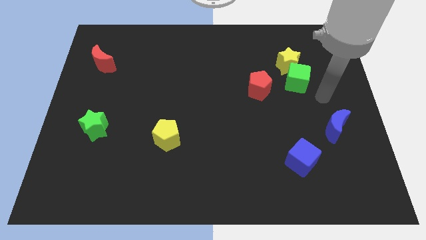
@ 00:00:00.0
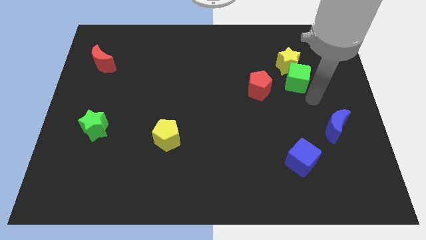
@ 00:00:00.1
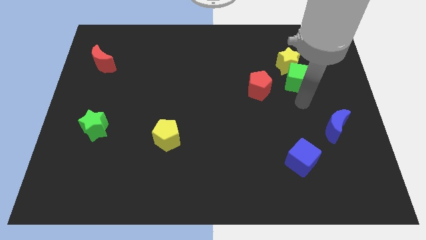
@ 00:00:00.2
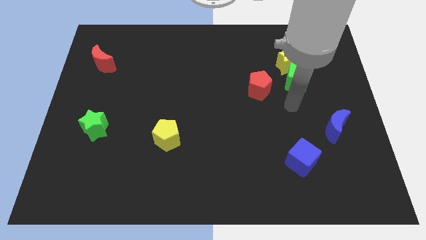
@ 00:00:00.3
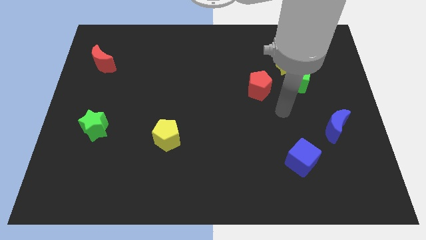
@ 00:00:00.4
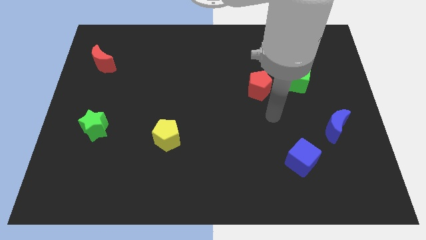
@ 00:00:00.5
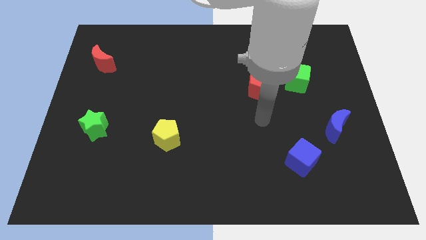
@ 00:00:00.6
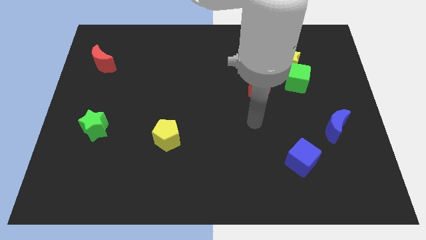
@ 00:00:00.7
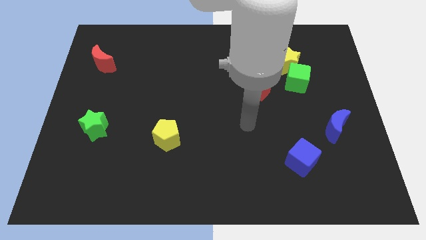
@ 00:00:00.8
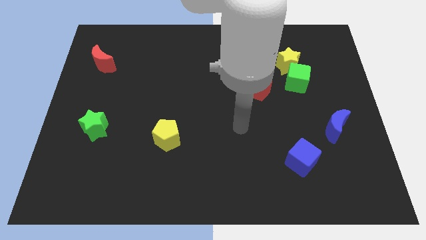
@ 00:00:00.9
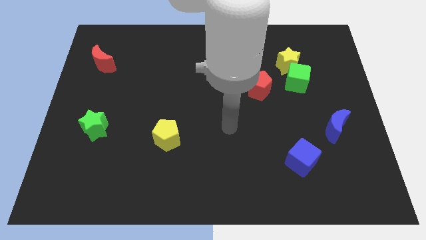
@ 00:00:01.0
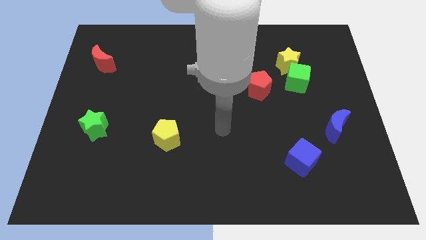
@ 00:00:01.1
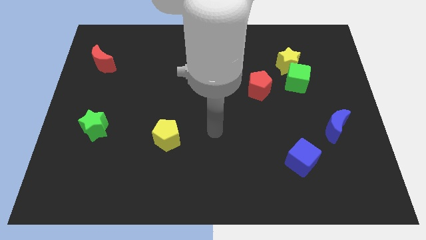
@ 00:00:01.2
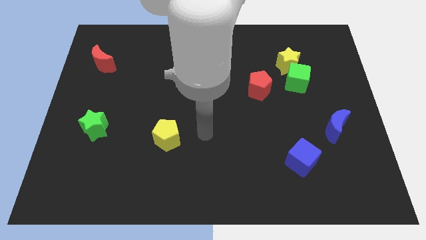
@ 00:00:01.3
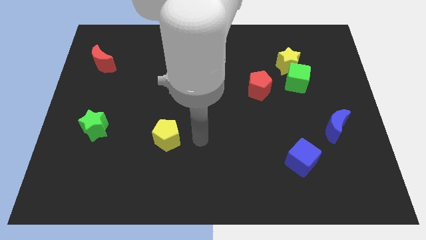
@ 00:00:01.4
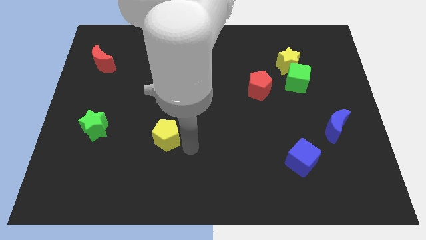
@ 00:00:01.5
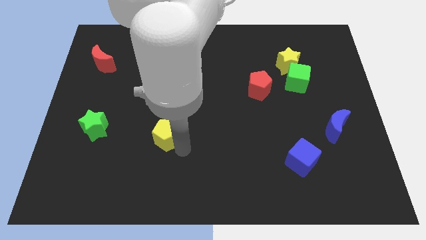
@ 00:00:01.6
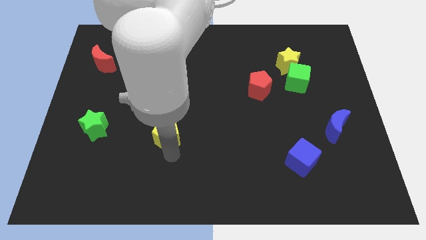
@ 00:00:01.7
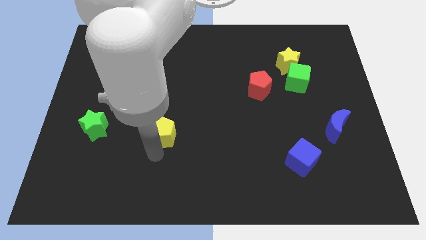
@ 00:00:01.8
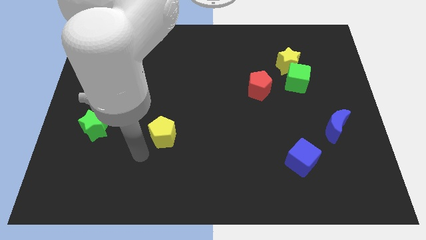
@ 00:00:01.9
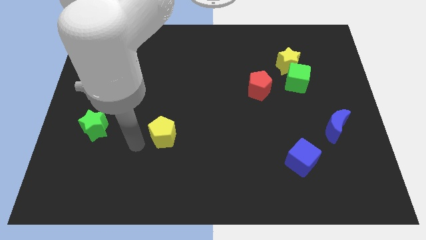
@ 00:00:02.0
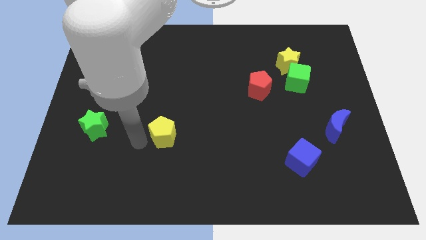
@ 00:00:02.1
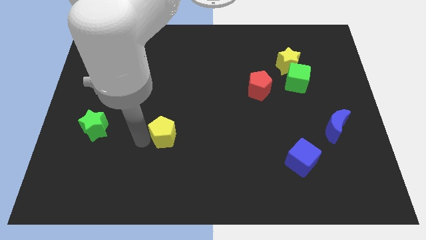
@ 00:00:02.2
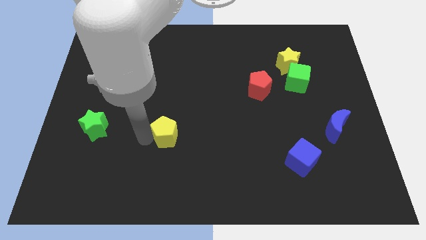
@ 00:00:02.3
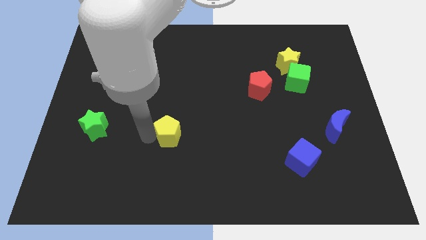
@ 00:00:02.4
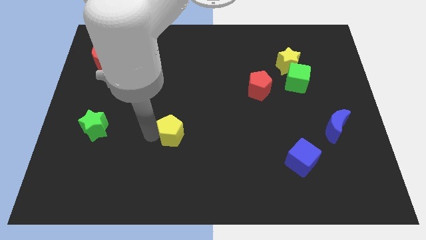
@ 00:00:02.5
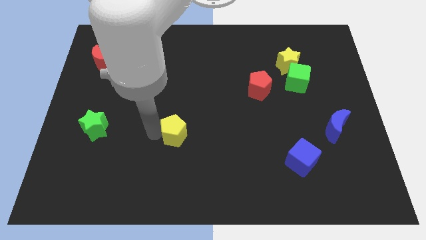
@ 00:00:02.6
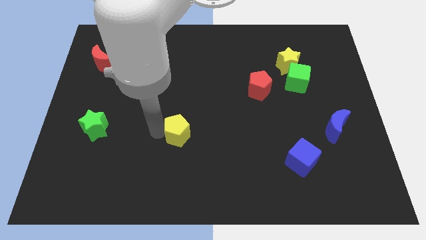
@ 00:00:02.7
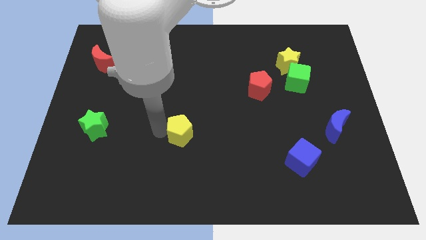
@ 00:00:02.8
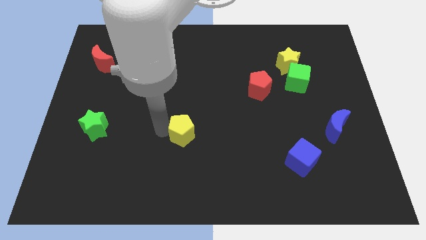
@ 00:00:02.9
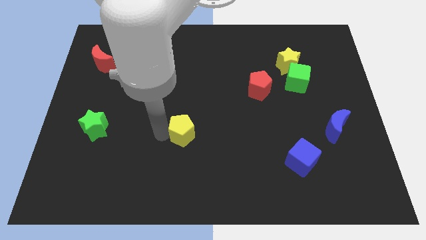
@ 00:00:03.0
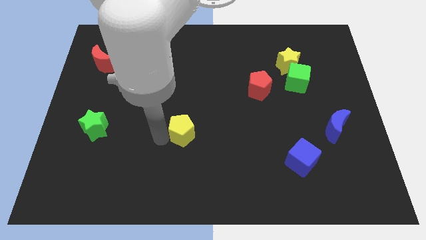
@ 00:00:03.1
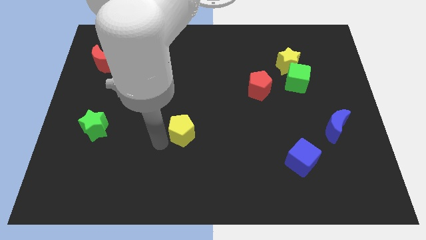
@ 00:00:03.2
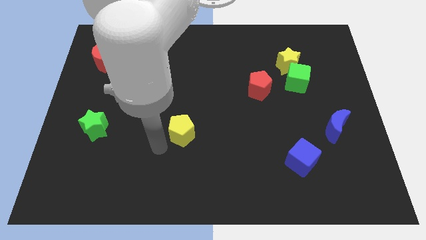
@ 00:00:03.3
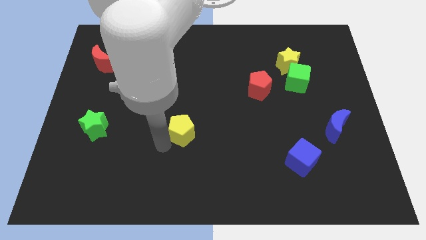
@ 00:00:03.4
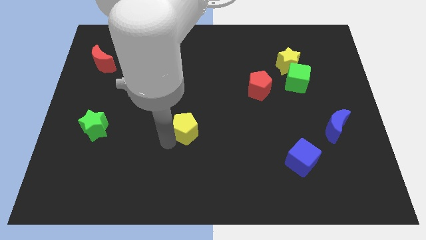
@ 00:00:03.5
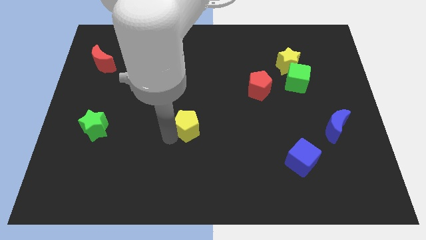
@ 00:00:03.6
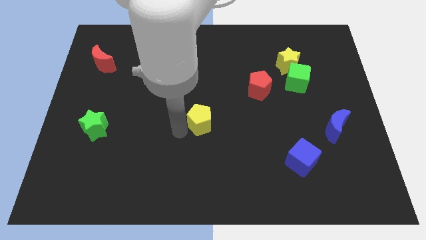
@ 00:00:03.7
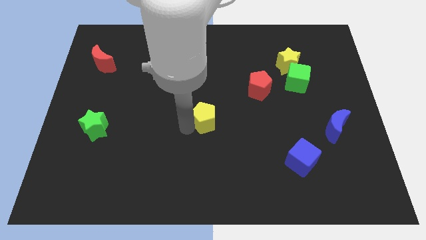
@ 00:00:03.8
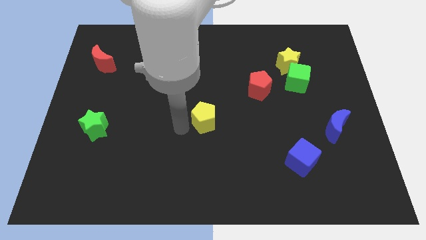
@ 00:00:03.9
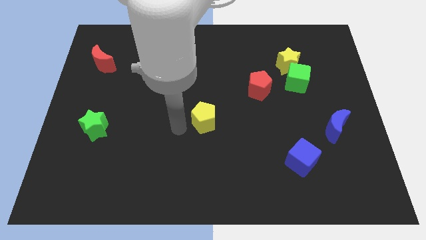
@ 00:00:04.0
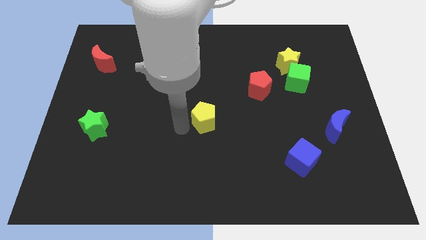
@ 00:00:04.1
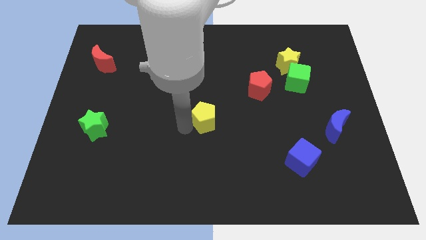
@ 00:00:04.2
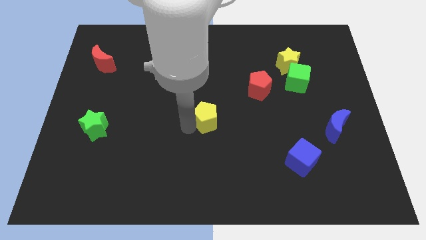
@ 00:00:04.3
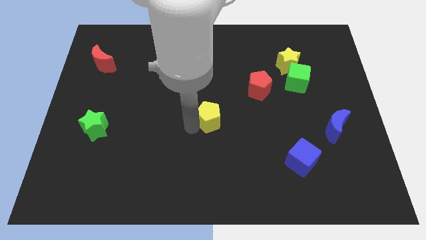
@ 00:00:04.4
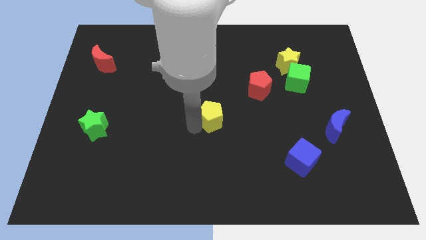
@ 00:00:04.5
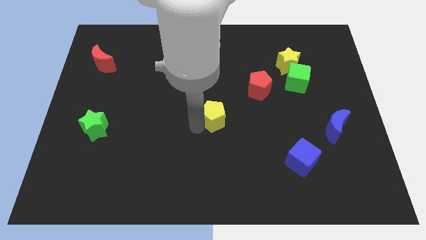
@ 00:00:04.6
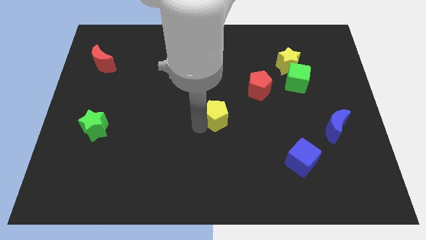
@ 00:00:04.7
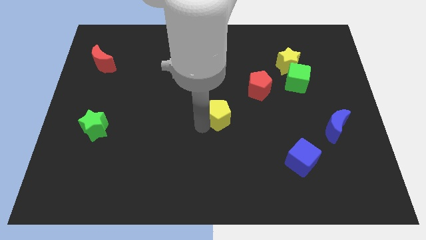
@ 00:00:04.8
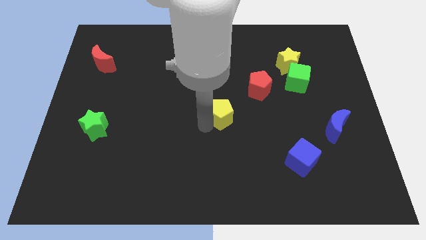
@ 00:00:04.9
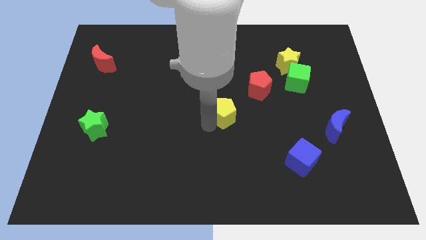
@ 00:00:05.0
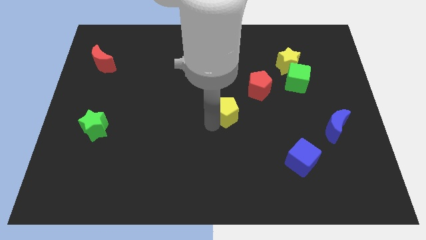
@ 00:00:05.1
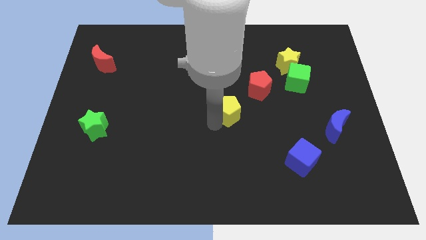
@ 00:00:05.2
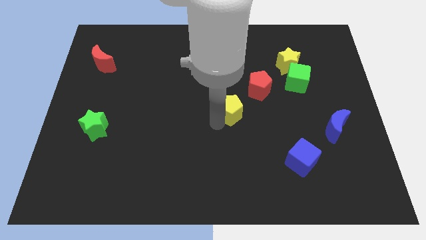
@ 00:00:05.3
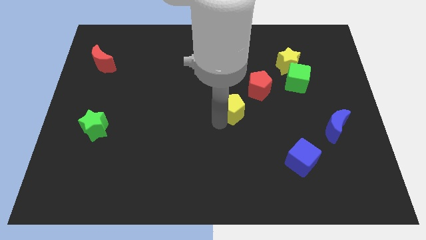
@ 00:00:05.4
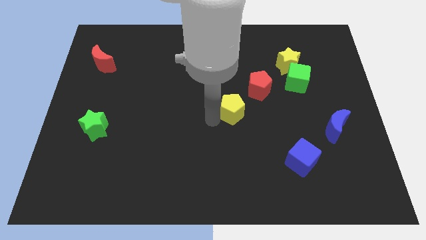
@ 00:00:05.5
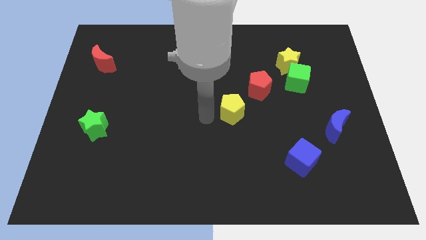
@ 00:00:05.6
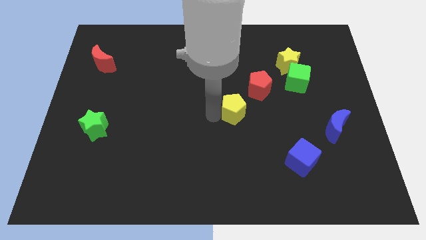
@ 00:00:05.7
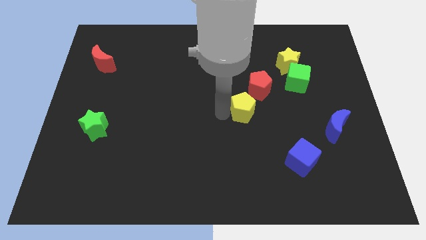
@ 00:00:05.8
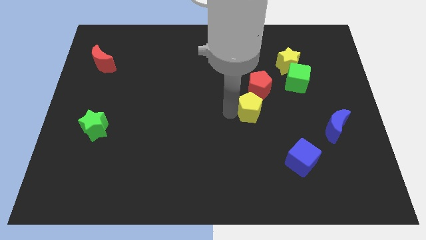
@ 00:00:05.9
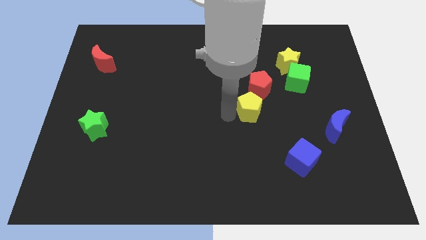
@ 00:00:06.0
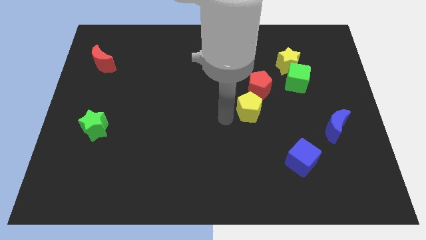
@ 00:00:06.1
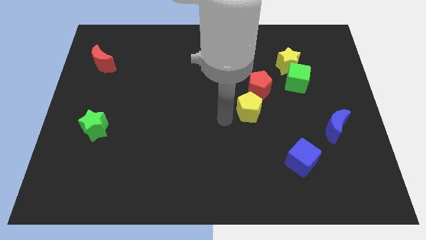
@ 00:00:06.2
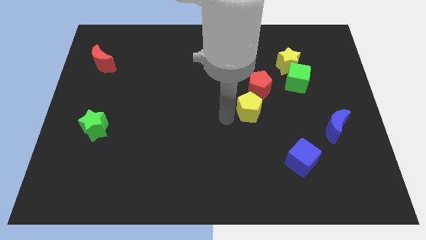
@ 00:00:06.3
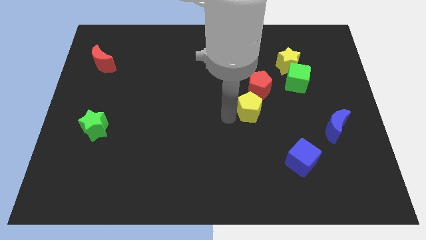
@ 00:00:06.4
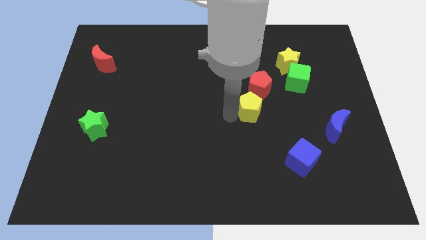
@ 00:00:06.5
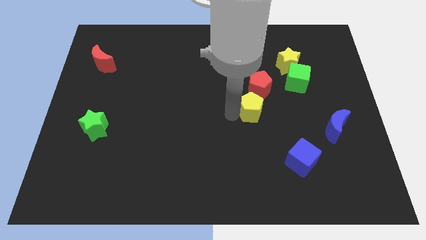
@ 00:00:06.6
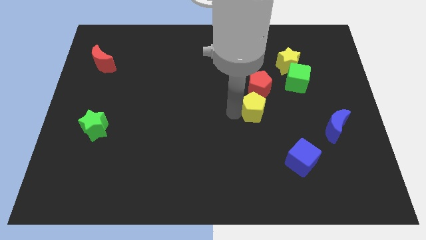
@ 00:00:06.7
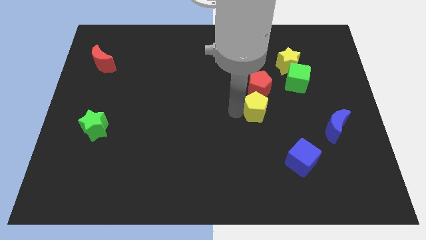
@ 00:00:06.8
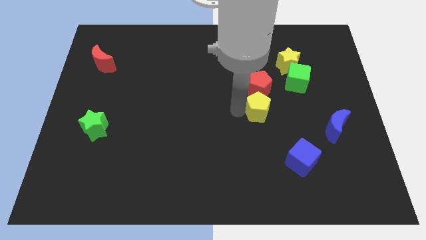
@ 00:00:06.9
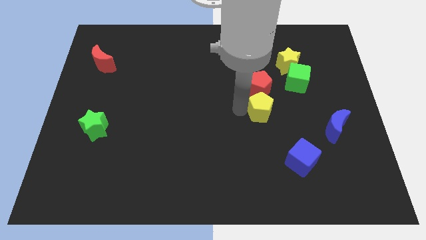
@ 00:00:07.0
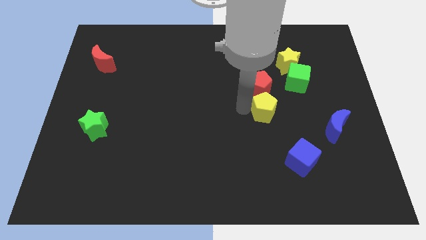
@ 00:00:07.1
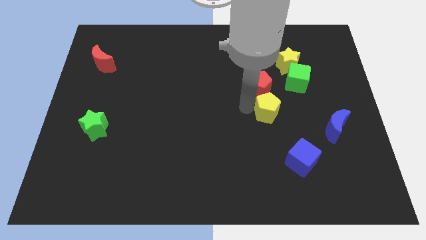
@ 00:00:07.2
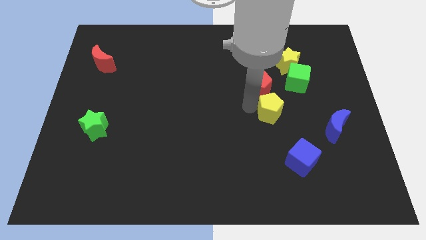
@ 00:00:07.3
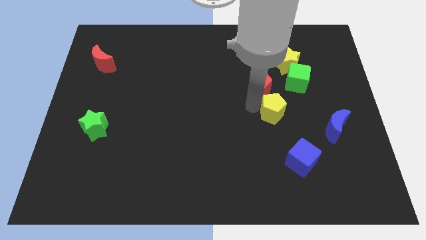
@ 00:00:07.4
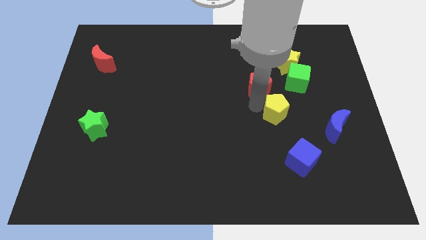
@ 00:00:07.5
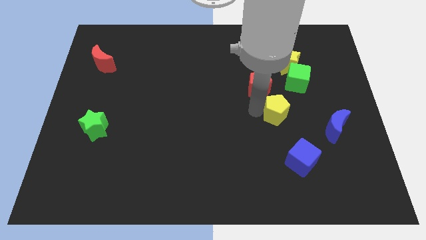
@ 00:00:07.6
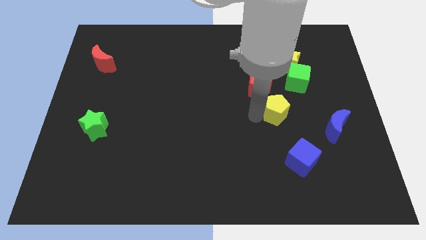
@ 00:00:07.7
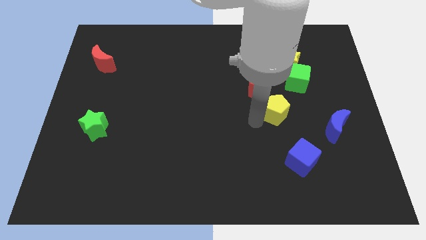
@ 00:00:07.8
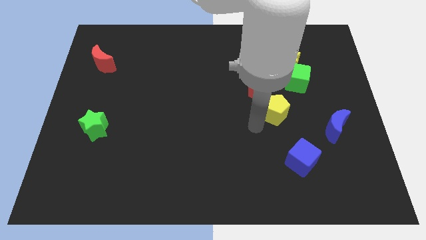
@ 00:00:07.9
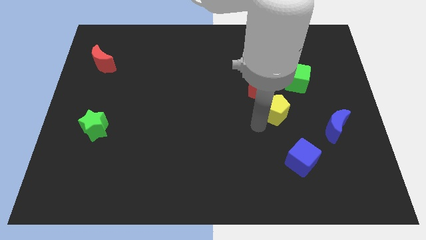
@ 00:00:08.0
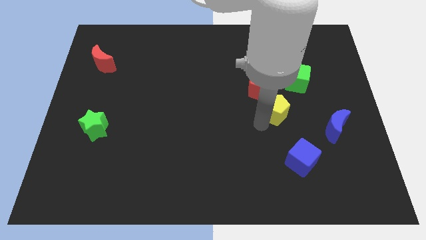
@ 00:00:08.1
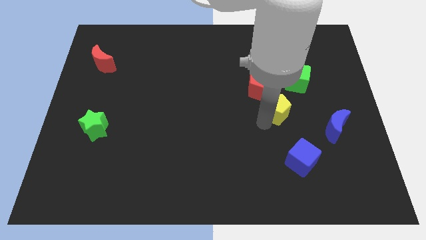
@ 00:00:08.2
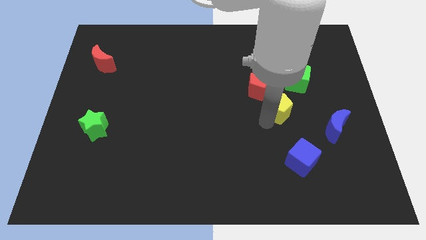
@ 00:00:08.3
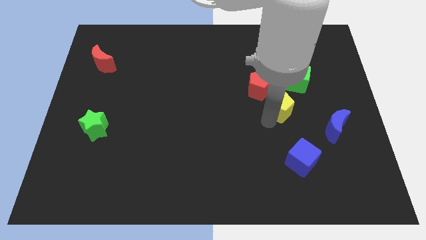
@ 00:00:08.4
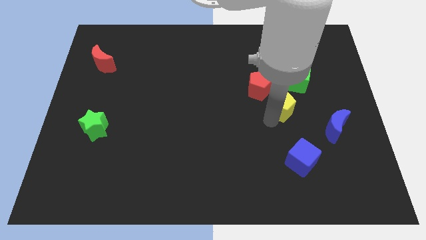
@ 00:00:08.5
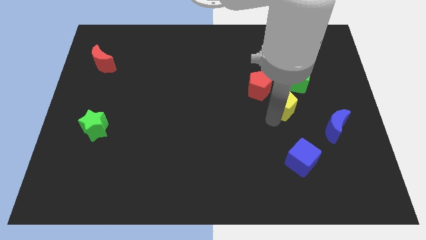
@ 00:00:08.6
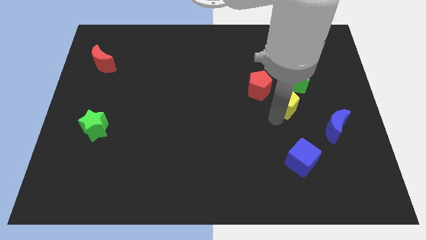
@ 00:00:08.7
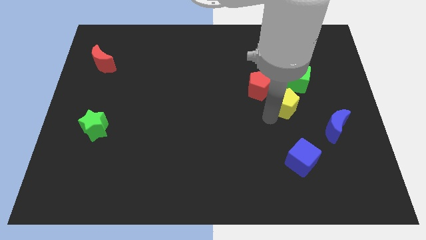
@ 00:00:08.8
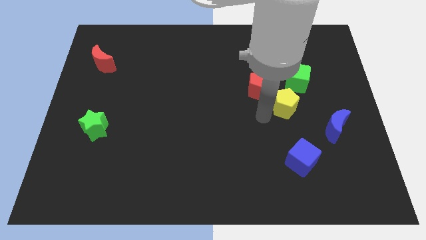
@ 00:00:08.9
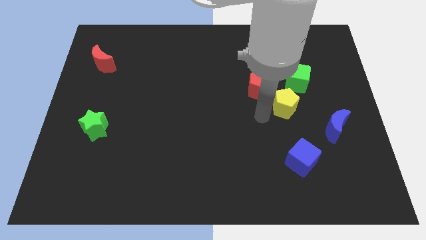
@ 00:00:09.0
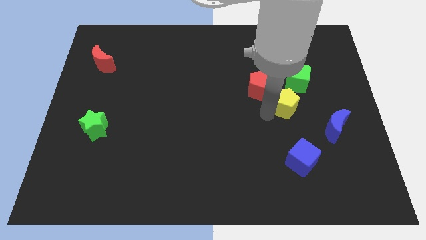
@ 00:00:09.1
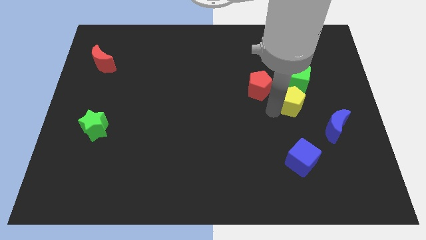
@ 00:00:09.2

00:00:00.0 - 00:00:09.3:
move the yellow pentagon just right of the red pentagon
